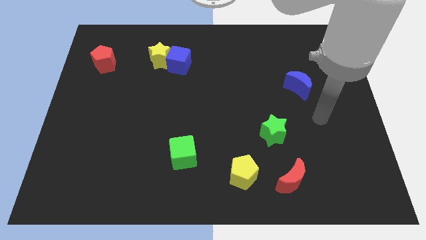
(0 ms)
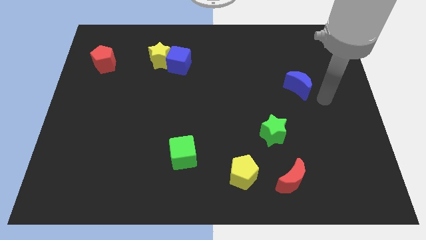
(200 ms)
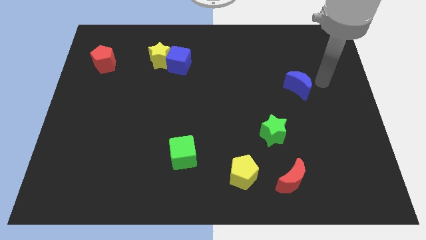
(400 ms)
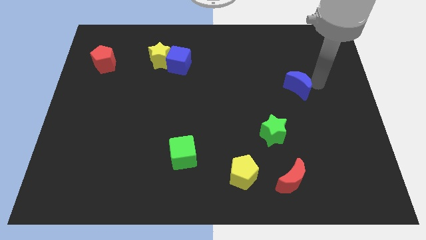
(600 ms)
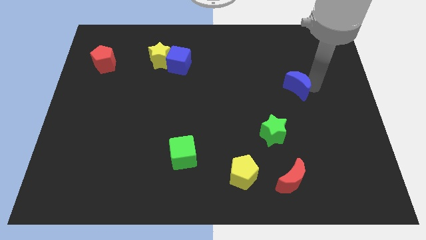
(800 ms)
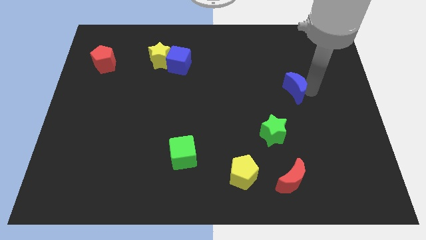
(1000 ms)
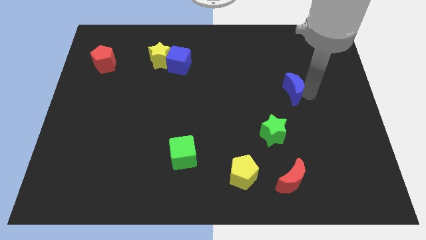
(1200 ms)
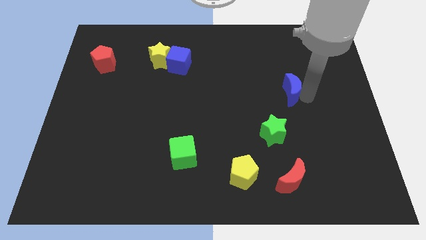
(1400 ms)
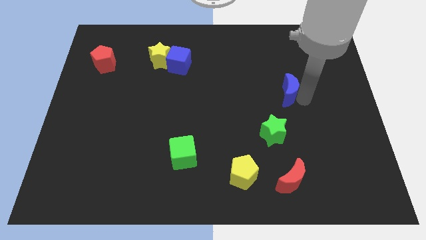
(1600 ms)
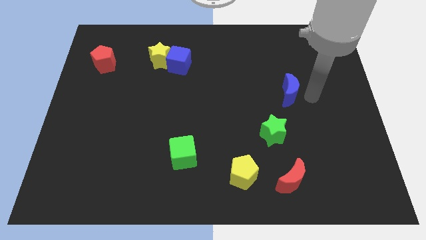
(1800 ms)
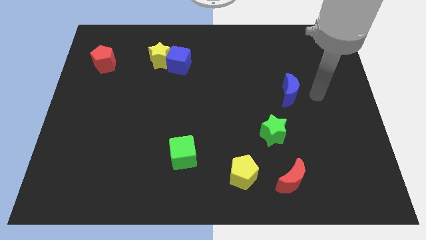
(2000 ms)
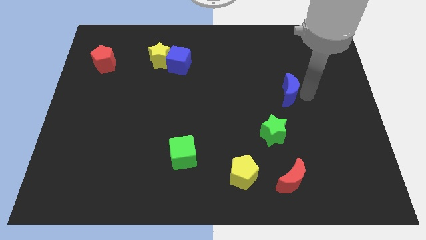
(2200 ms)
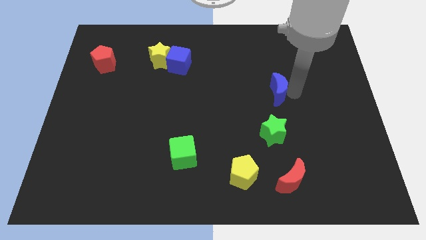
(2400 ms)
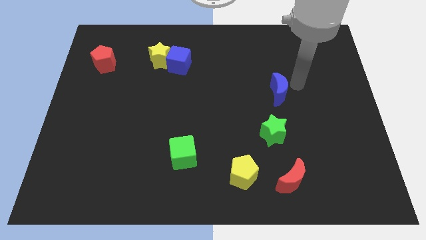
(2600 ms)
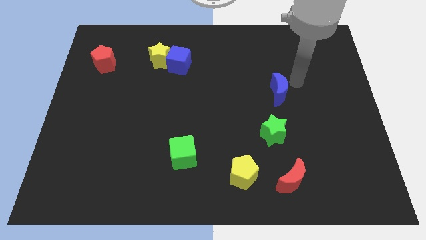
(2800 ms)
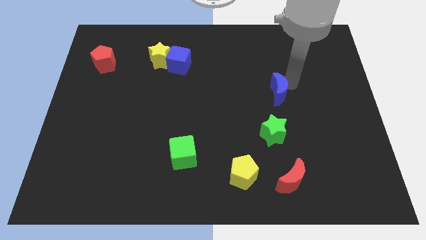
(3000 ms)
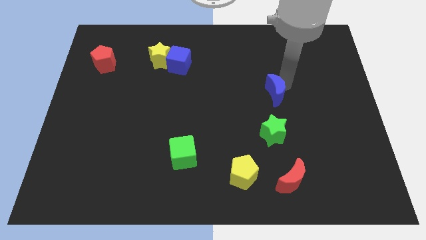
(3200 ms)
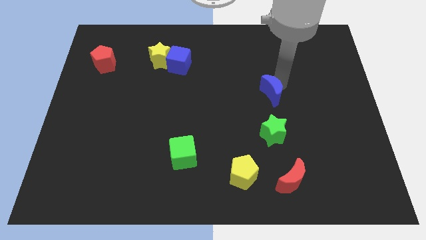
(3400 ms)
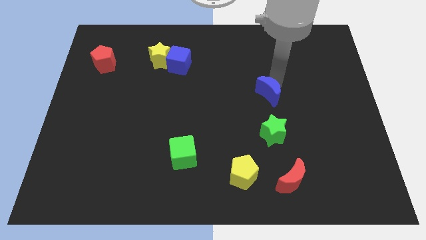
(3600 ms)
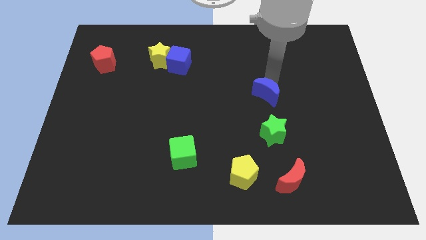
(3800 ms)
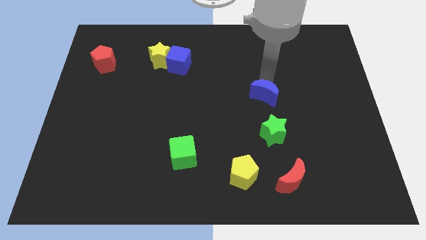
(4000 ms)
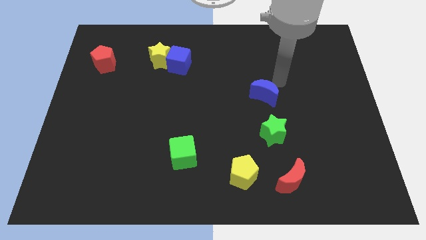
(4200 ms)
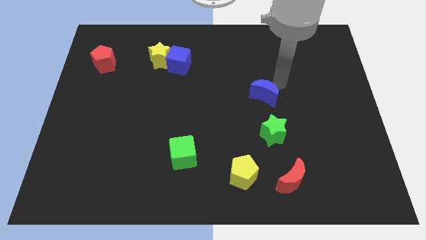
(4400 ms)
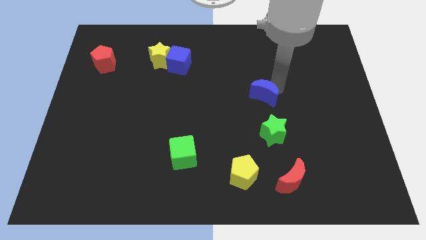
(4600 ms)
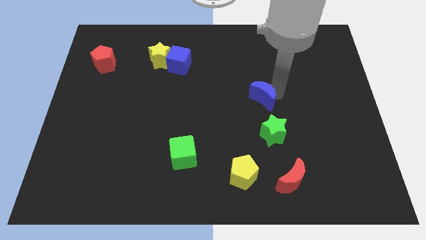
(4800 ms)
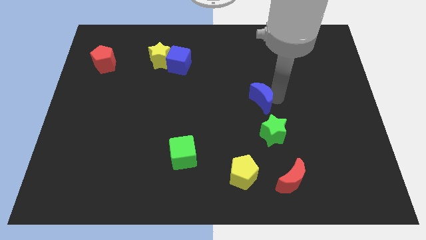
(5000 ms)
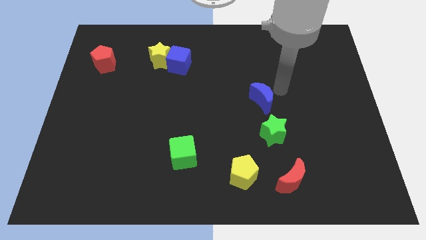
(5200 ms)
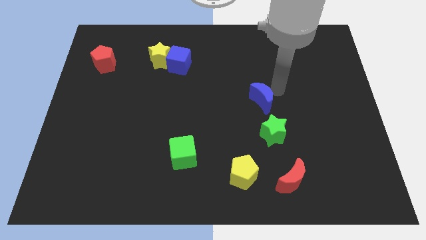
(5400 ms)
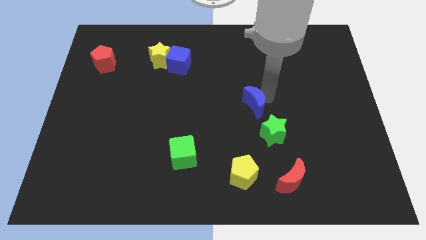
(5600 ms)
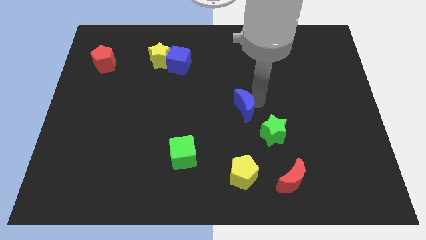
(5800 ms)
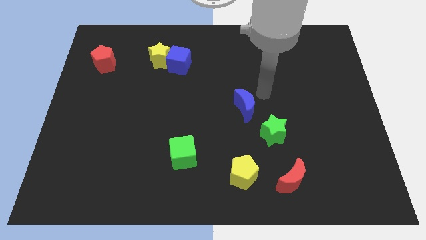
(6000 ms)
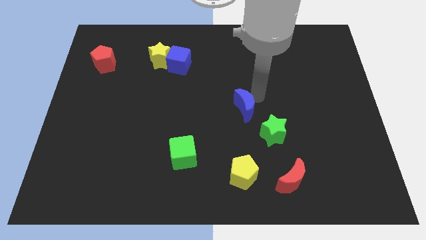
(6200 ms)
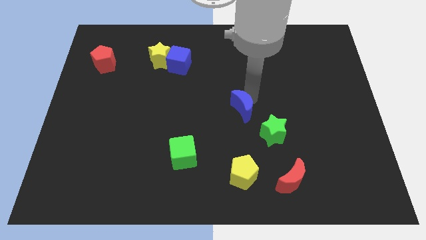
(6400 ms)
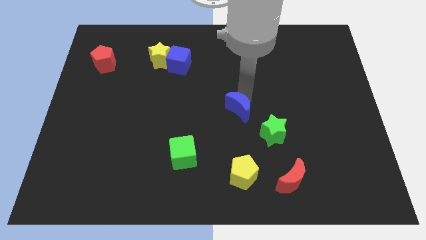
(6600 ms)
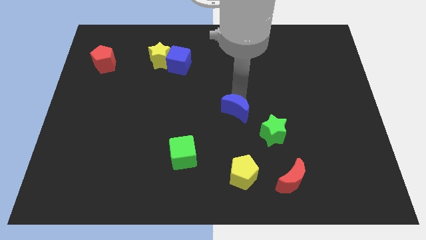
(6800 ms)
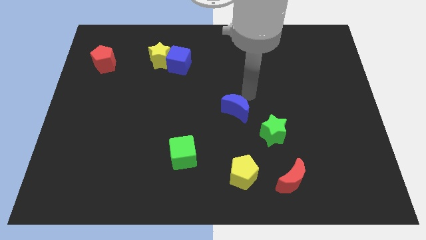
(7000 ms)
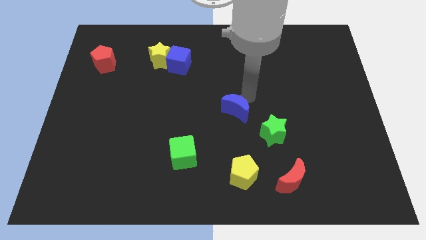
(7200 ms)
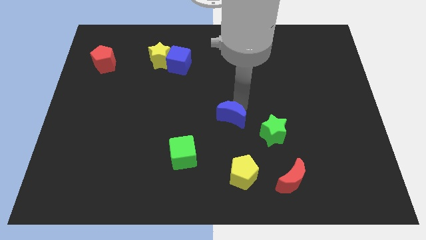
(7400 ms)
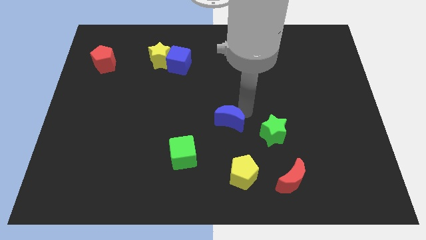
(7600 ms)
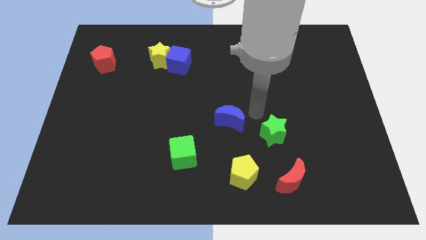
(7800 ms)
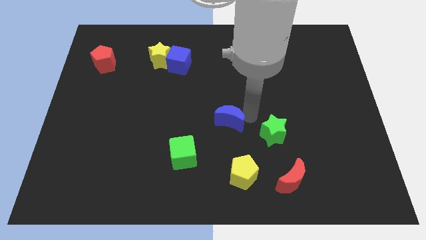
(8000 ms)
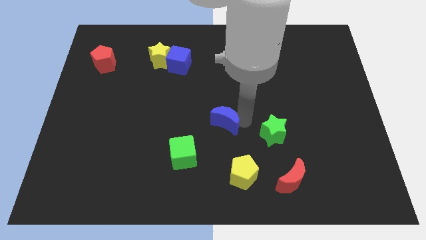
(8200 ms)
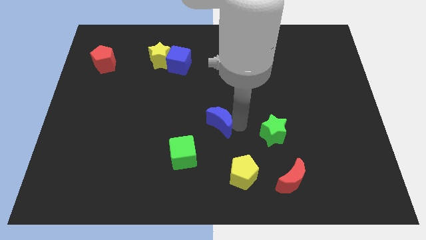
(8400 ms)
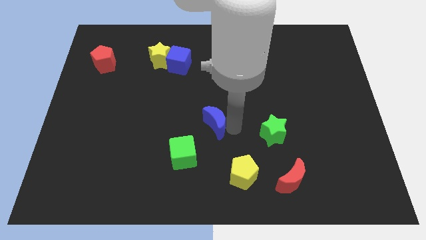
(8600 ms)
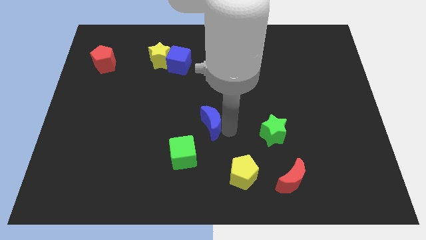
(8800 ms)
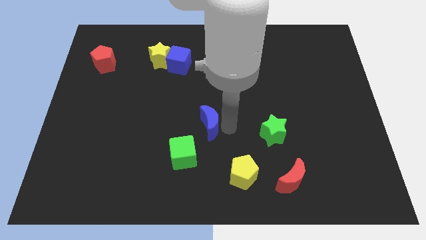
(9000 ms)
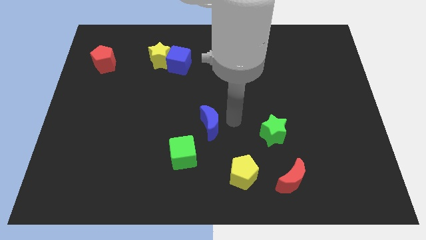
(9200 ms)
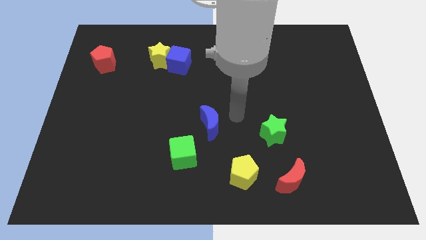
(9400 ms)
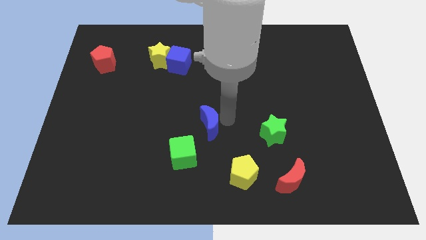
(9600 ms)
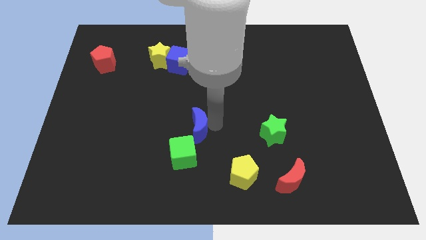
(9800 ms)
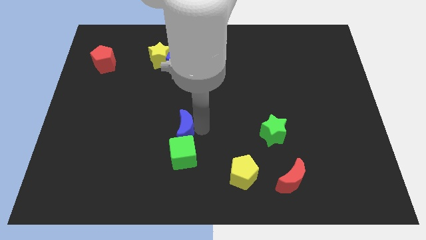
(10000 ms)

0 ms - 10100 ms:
put the blue moon to the top left of the green cube

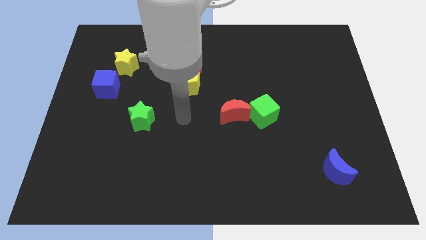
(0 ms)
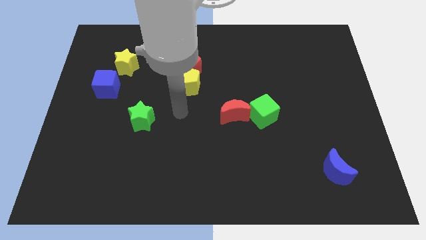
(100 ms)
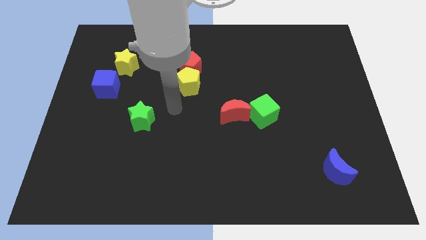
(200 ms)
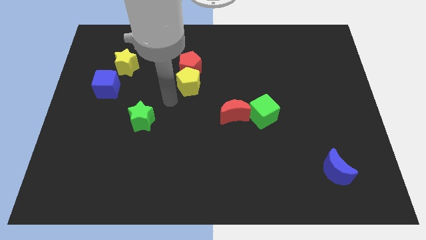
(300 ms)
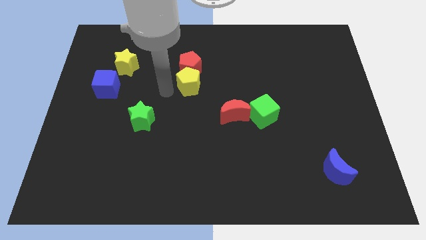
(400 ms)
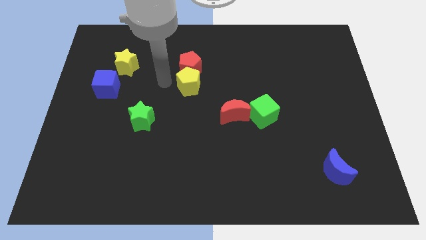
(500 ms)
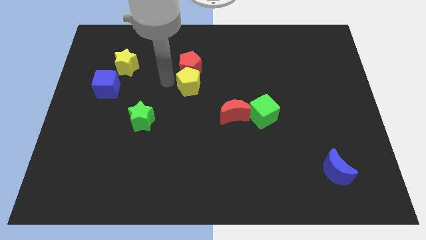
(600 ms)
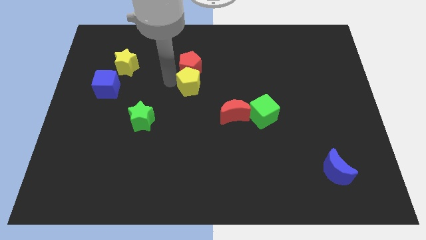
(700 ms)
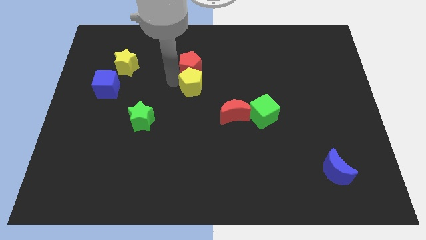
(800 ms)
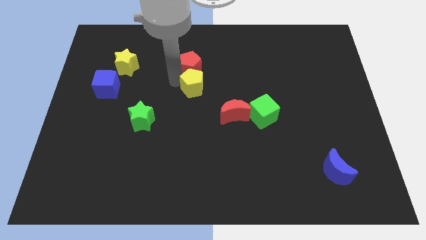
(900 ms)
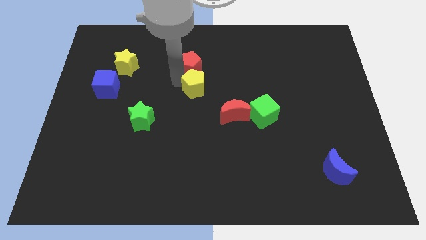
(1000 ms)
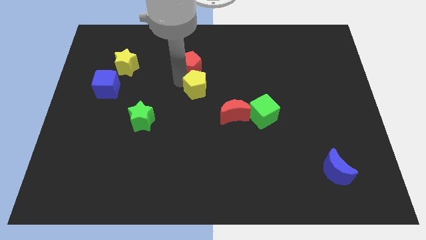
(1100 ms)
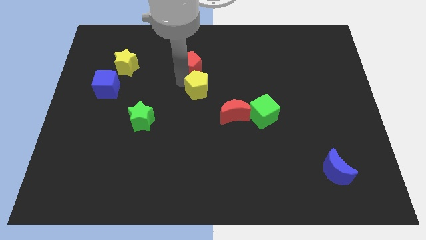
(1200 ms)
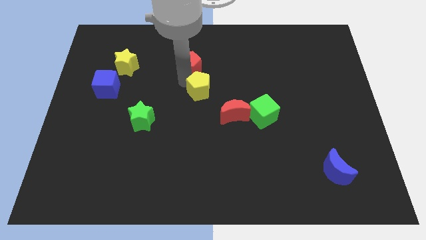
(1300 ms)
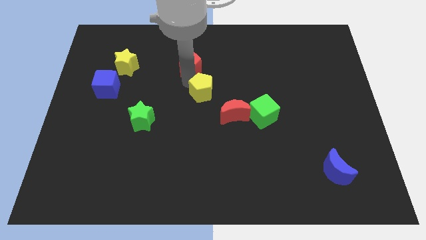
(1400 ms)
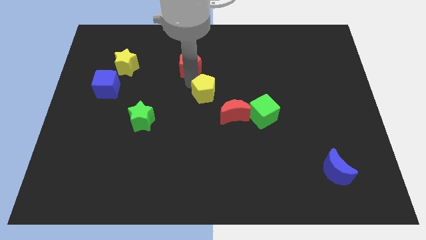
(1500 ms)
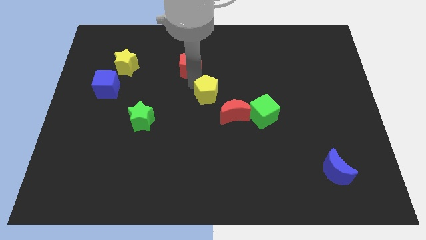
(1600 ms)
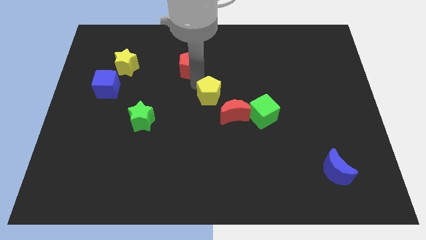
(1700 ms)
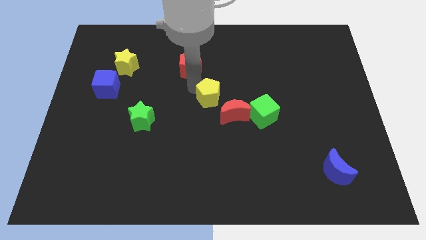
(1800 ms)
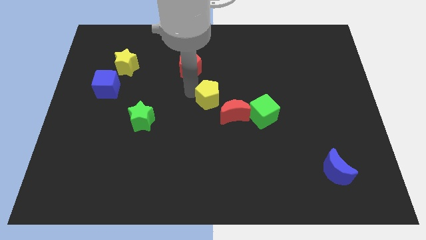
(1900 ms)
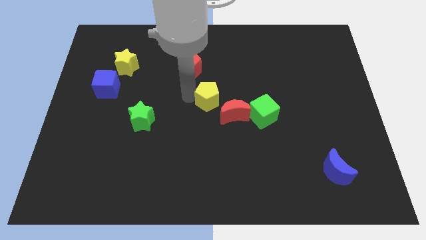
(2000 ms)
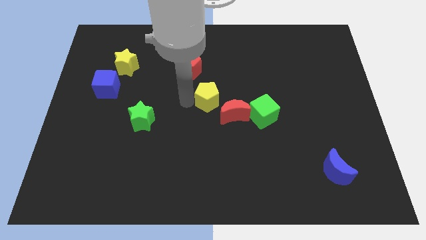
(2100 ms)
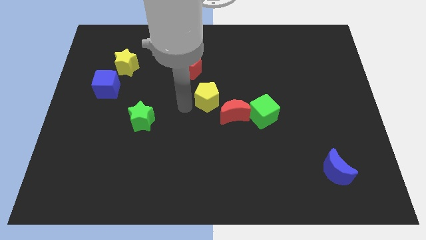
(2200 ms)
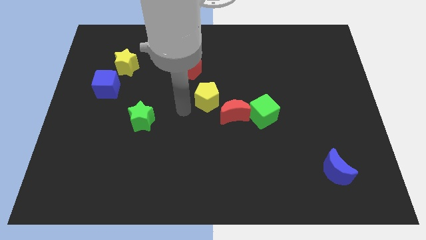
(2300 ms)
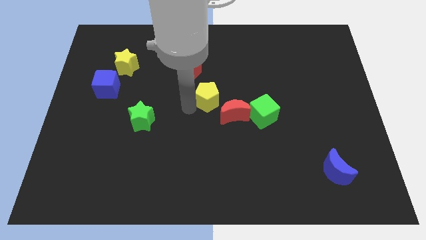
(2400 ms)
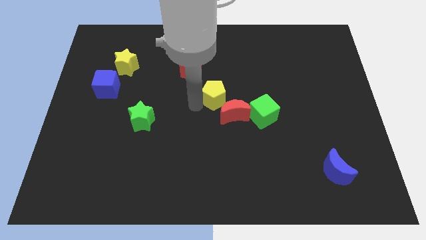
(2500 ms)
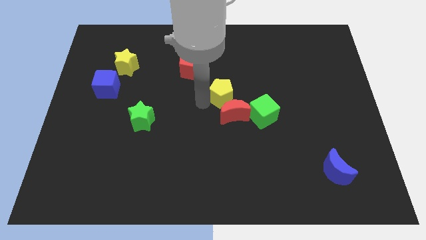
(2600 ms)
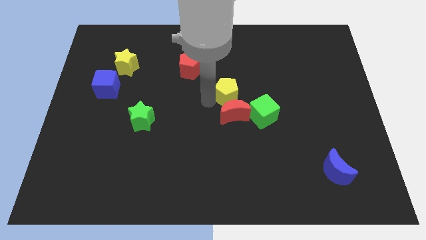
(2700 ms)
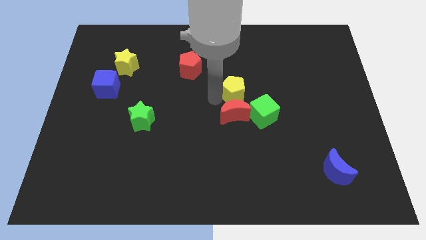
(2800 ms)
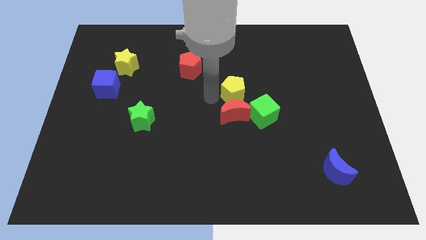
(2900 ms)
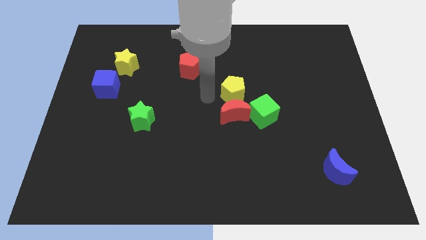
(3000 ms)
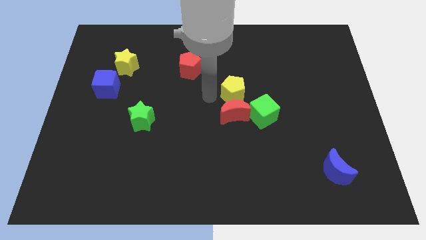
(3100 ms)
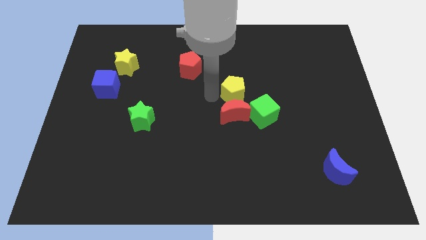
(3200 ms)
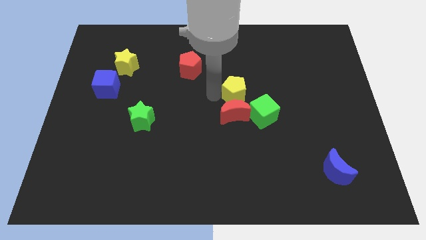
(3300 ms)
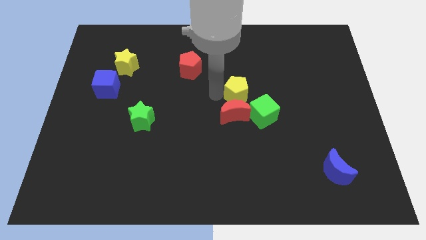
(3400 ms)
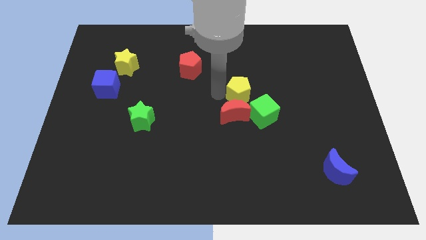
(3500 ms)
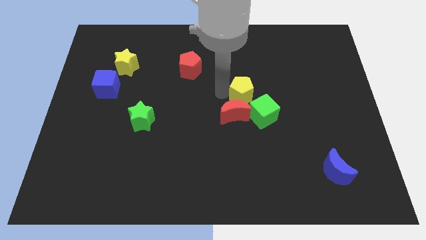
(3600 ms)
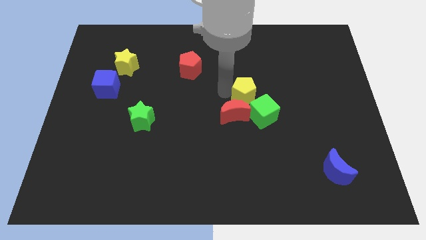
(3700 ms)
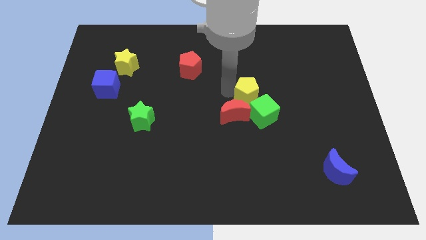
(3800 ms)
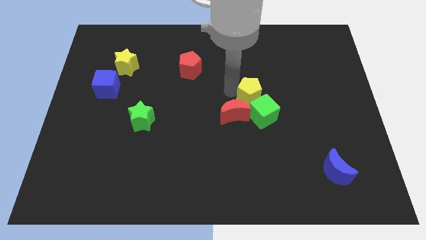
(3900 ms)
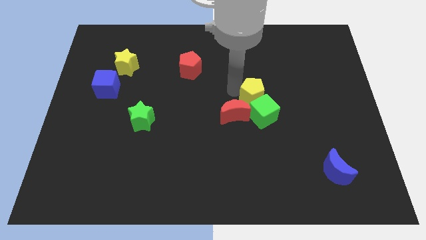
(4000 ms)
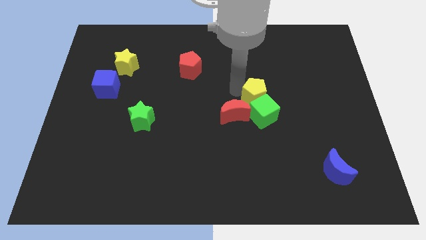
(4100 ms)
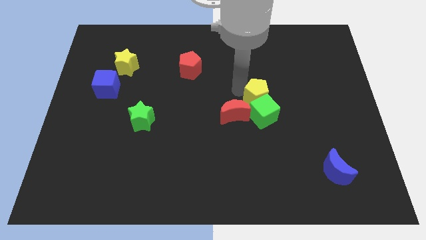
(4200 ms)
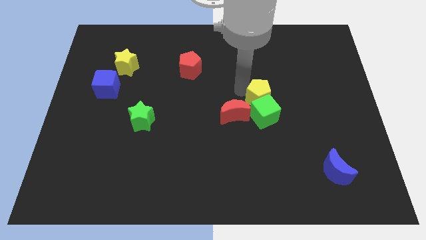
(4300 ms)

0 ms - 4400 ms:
move the yellow pentagon right of the red moon
